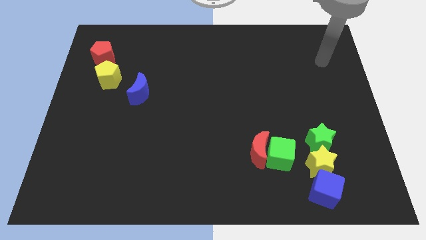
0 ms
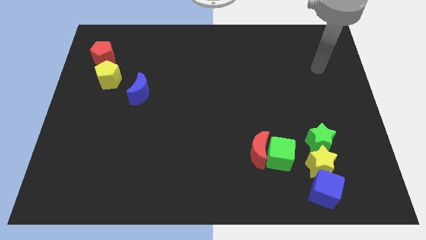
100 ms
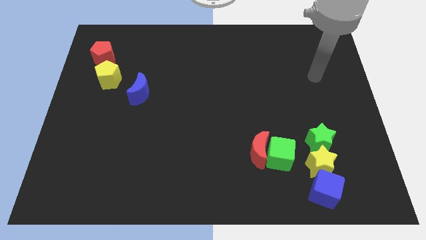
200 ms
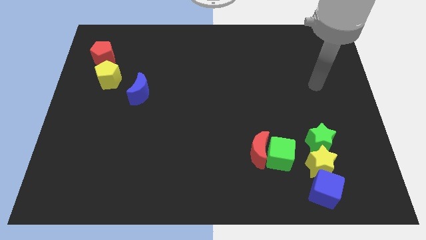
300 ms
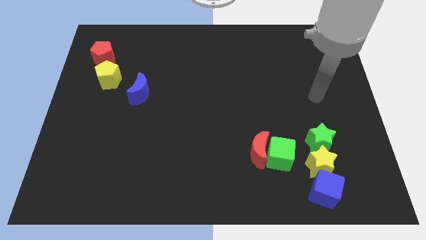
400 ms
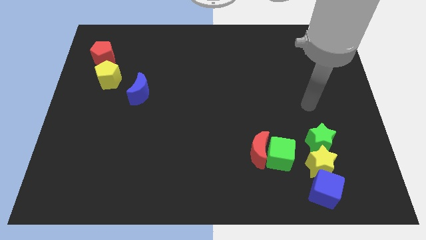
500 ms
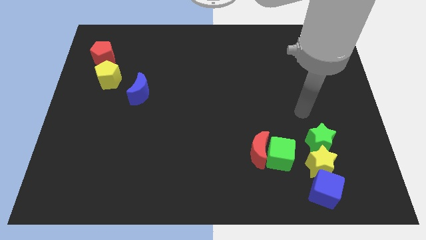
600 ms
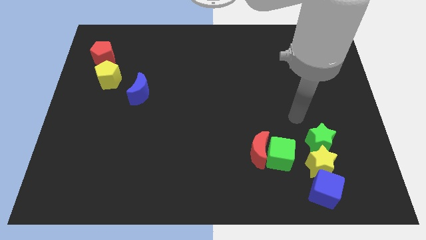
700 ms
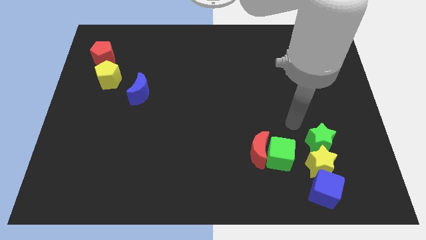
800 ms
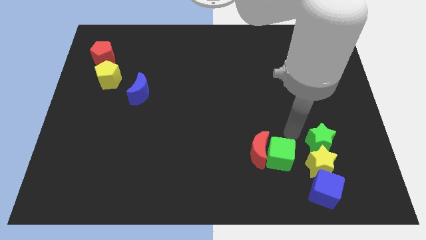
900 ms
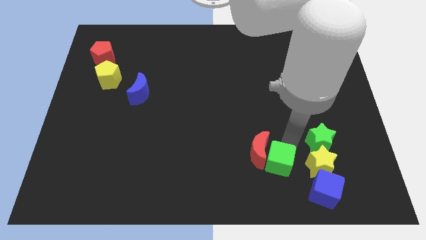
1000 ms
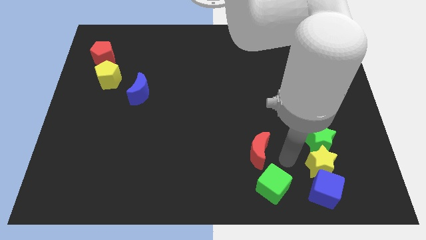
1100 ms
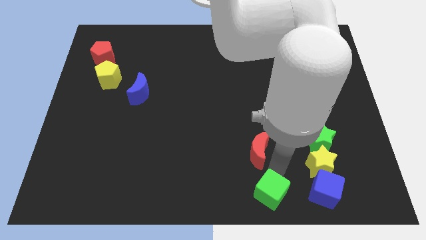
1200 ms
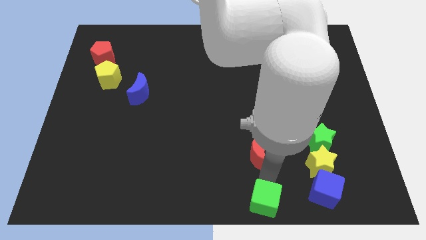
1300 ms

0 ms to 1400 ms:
move the red moon away from the green cube

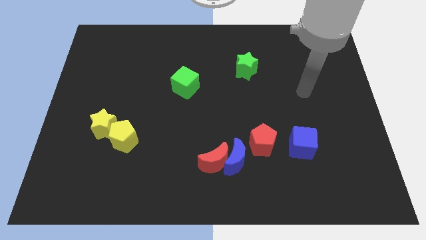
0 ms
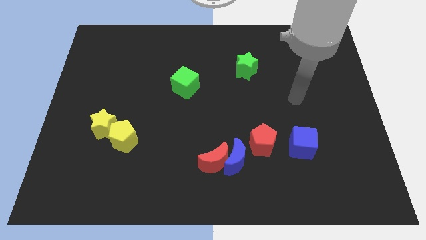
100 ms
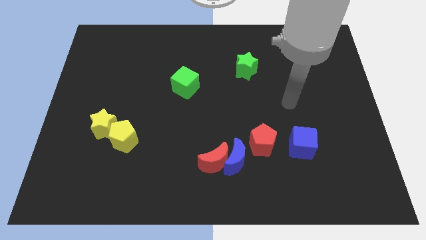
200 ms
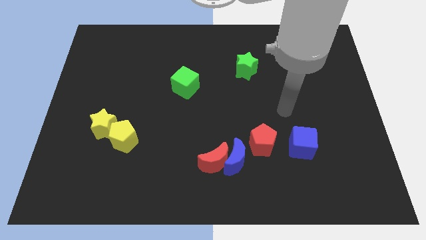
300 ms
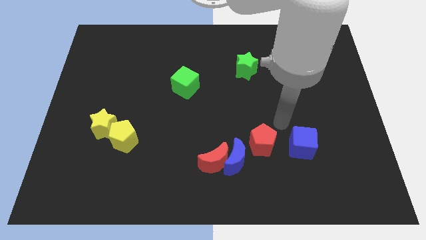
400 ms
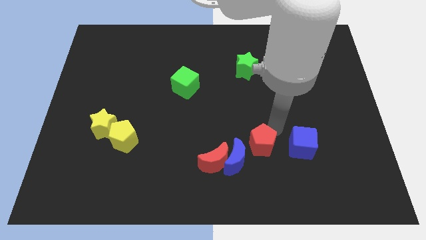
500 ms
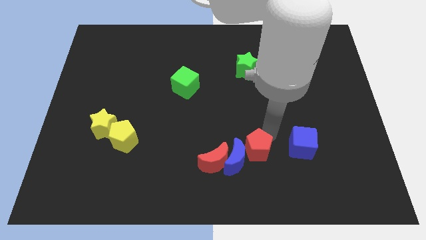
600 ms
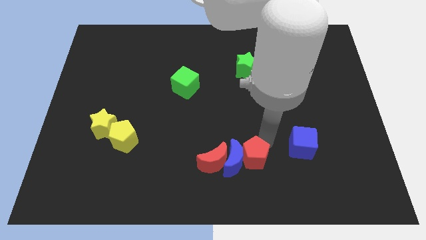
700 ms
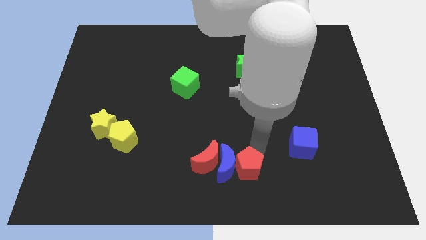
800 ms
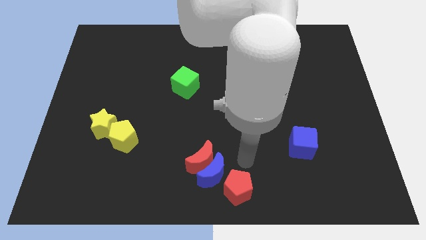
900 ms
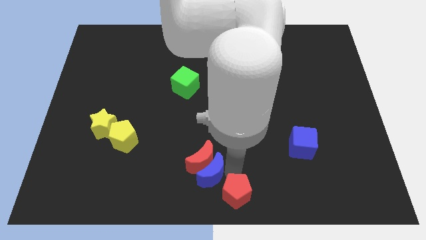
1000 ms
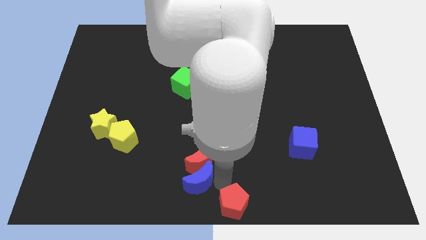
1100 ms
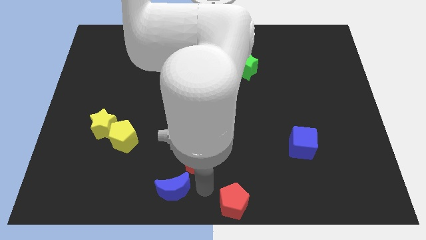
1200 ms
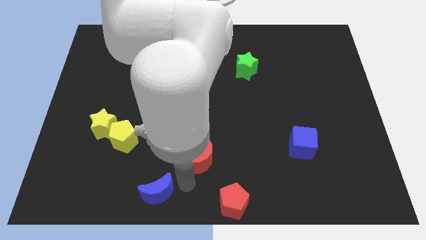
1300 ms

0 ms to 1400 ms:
pull the red moon apart from the blue moon

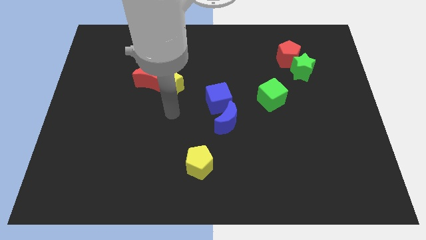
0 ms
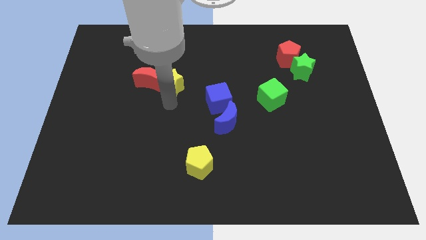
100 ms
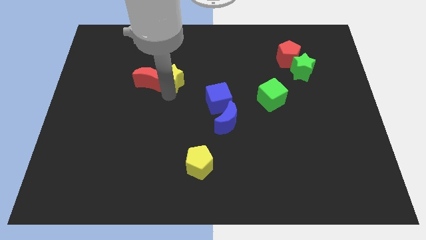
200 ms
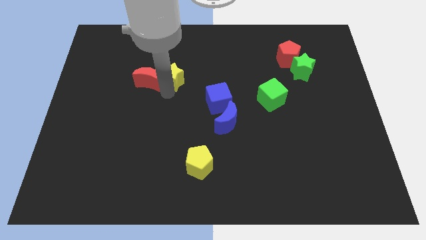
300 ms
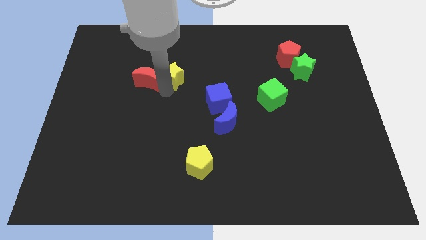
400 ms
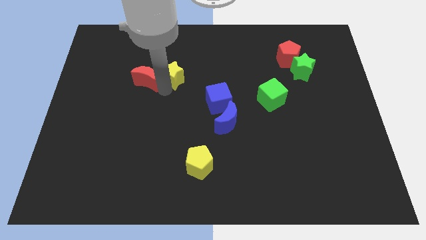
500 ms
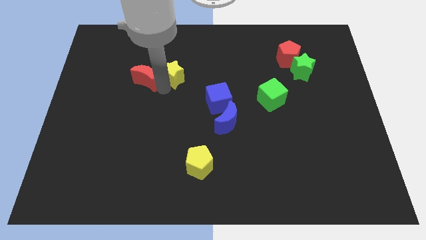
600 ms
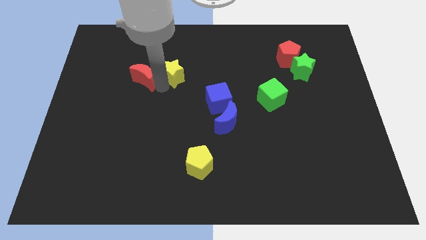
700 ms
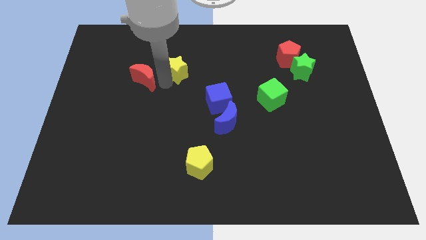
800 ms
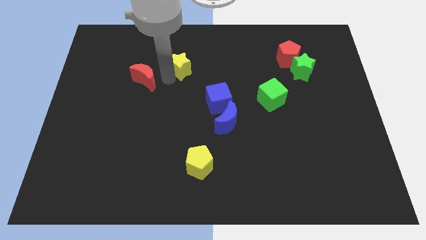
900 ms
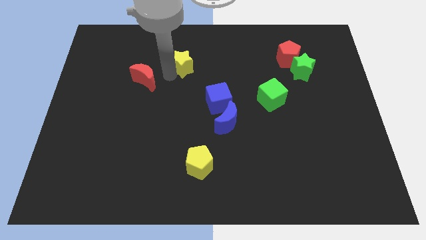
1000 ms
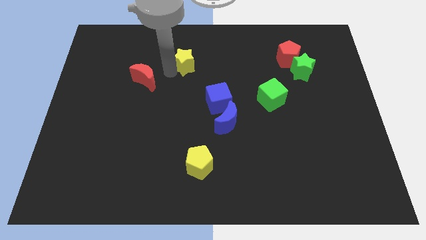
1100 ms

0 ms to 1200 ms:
move the red moon away from the yellow star

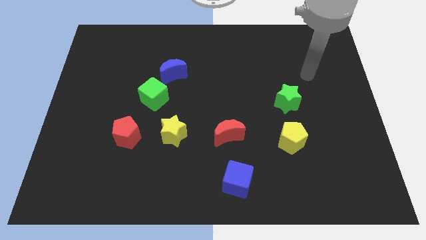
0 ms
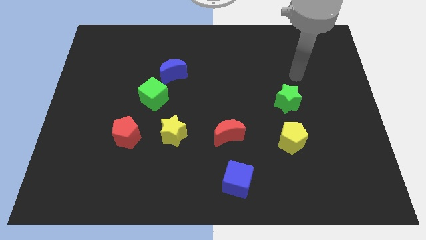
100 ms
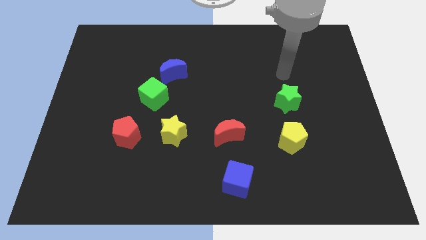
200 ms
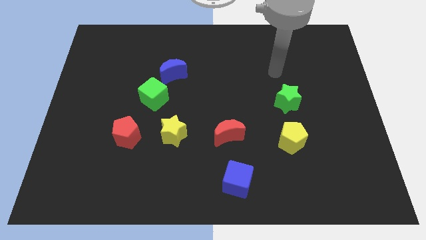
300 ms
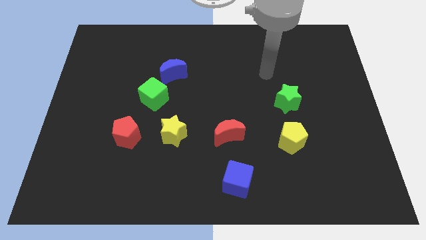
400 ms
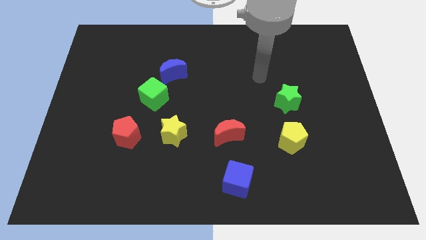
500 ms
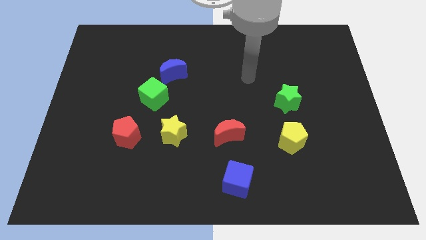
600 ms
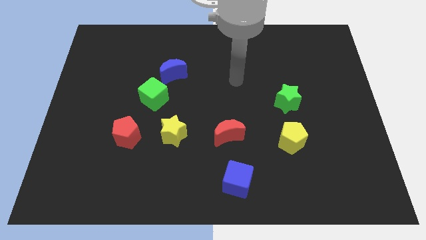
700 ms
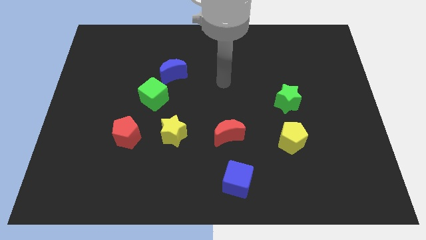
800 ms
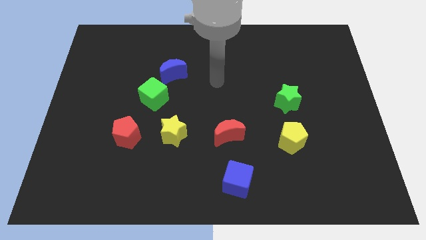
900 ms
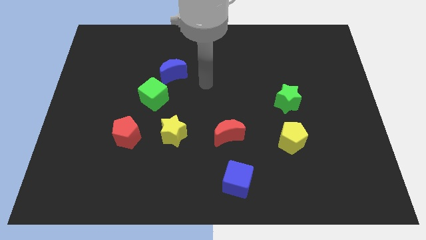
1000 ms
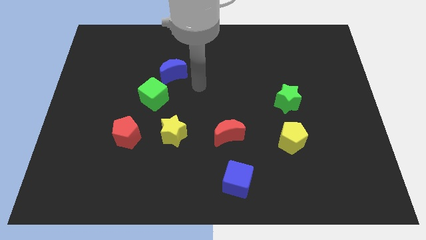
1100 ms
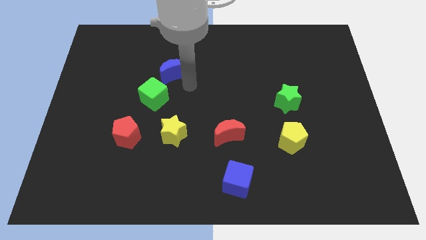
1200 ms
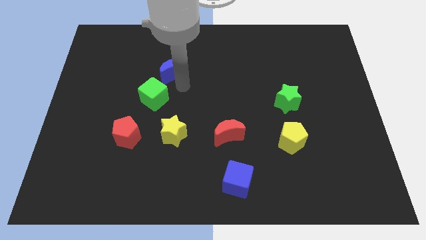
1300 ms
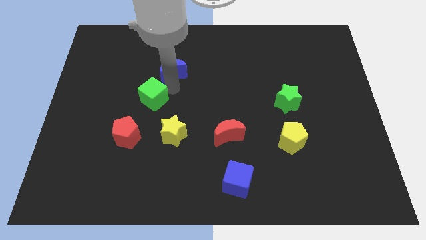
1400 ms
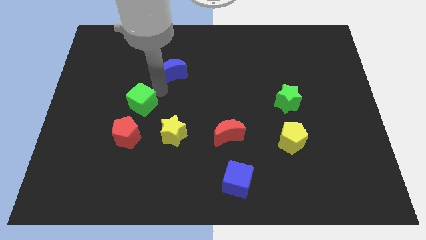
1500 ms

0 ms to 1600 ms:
move the blue moon away from the green cube

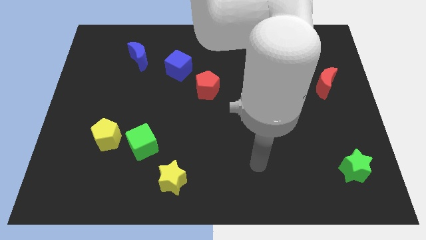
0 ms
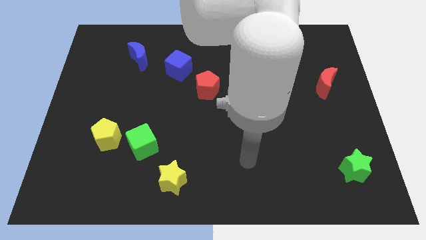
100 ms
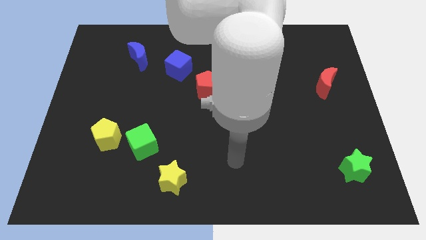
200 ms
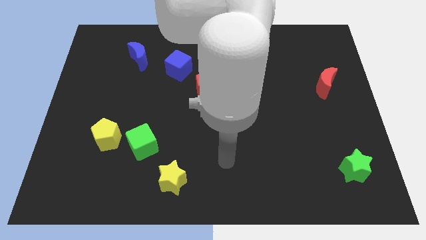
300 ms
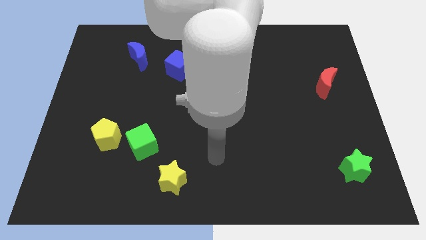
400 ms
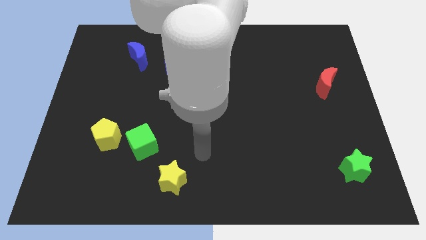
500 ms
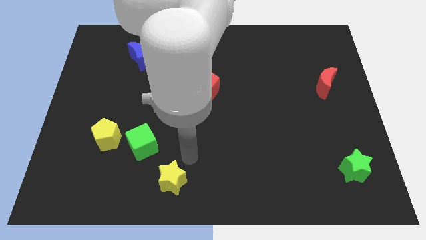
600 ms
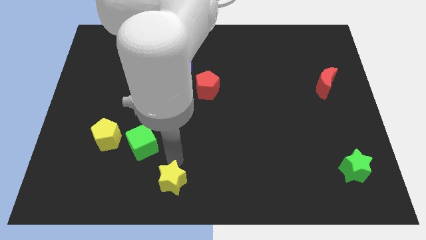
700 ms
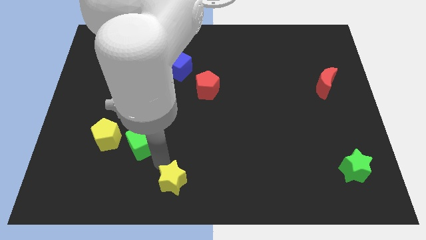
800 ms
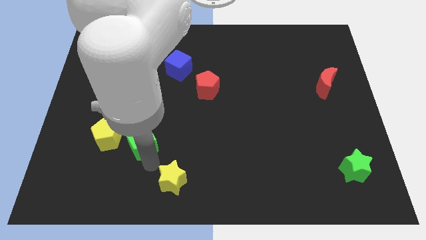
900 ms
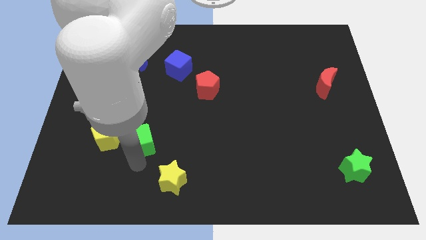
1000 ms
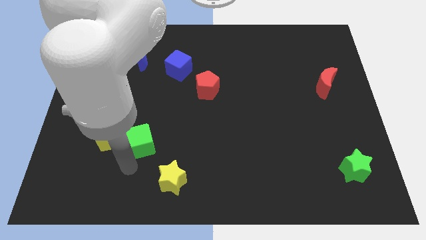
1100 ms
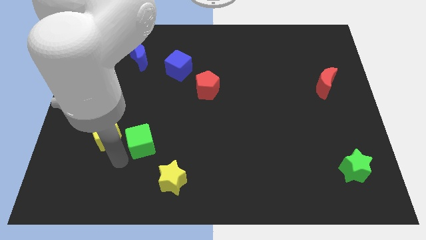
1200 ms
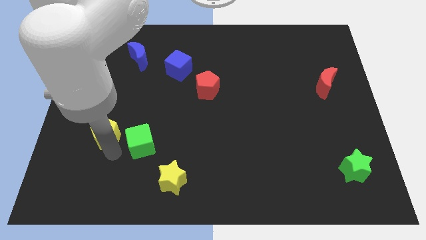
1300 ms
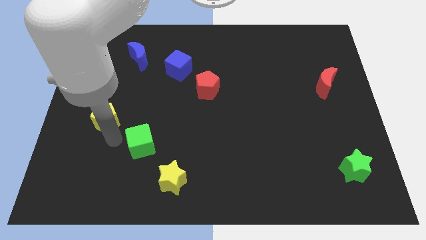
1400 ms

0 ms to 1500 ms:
separate the green cube from the yellow pentagon

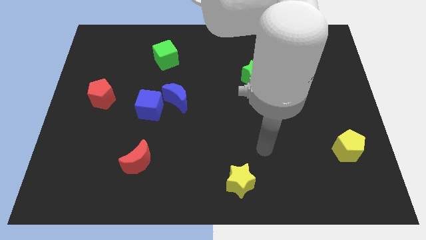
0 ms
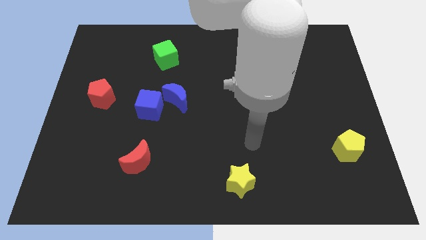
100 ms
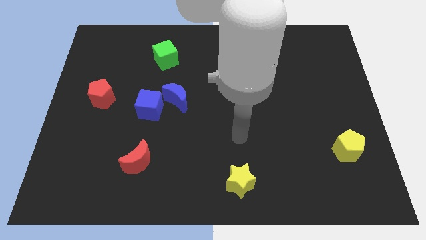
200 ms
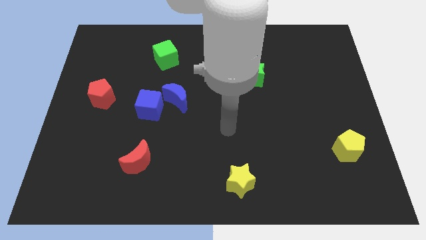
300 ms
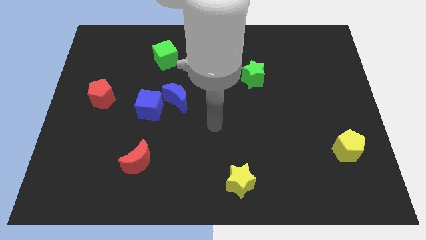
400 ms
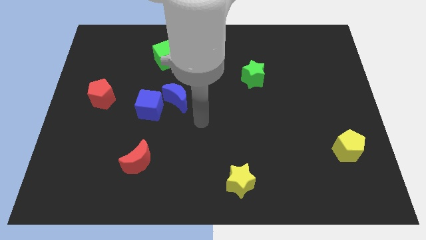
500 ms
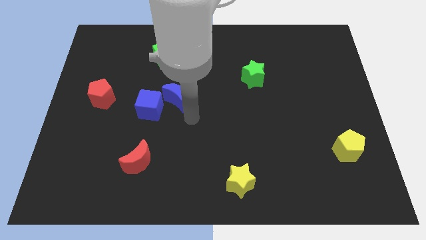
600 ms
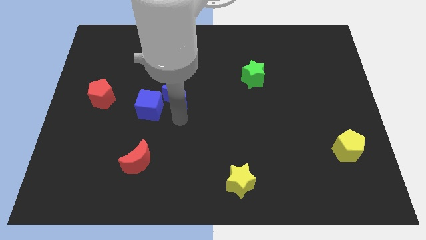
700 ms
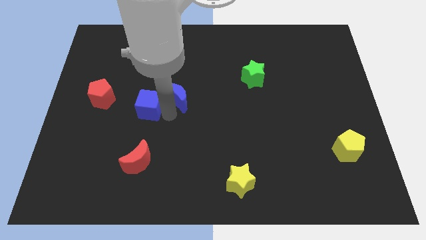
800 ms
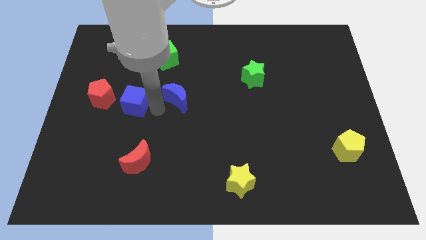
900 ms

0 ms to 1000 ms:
pull the blue moon apart from the blue cube

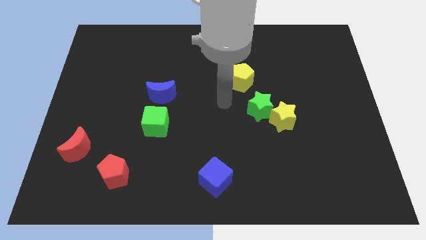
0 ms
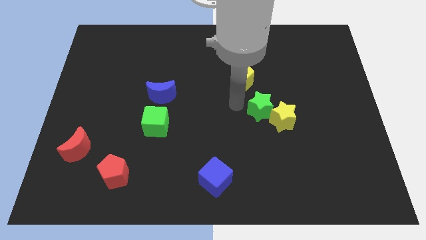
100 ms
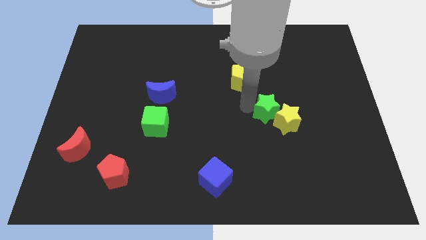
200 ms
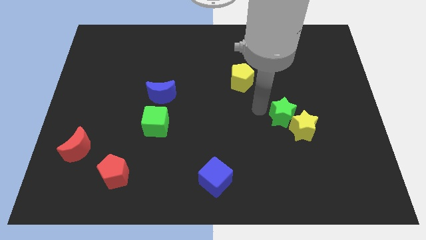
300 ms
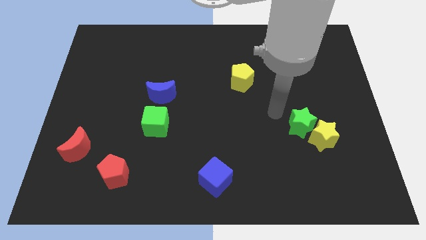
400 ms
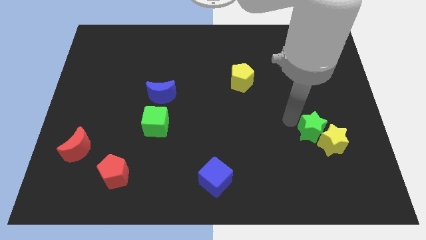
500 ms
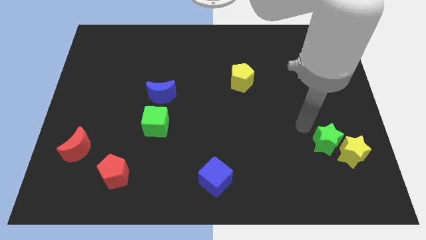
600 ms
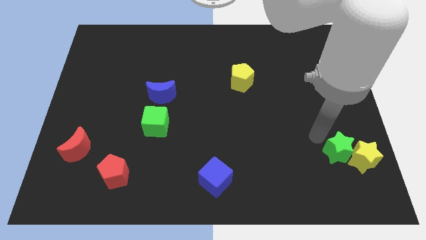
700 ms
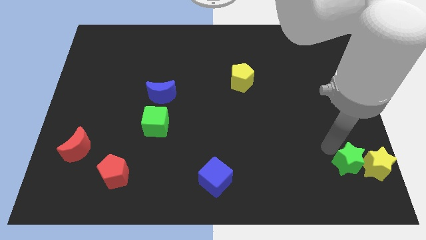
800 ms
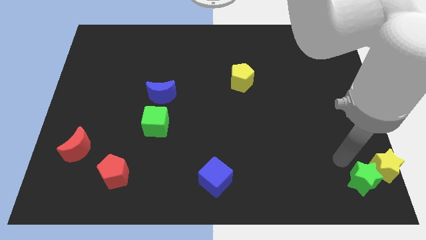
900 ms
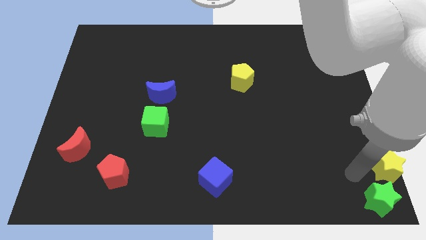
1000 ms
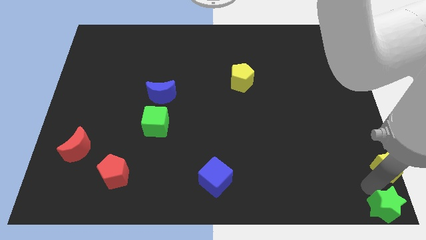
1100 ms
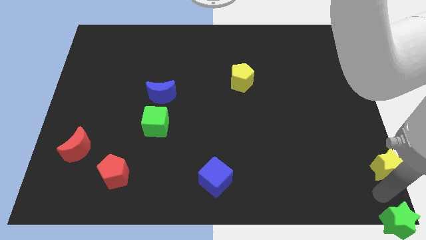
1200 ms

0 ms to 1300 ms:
separate the yellow star from the green star

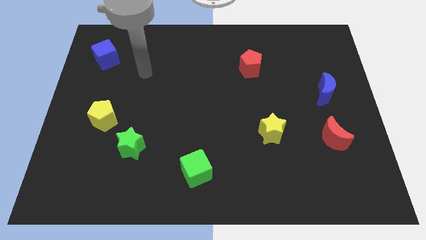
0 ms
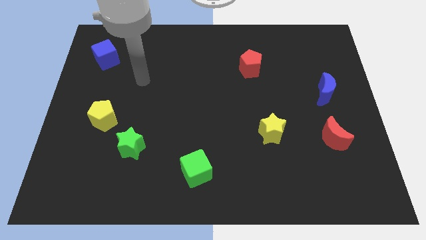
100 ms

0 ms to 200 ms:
separate the green star from the yellow pentagon
